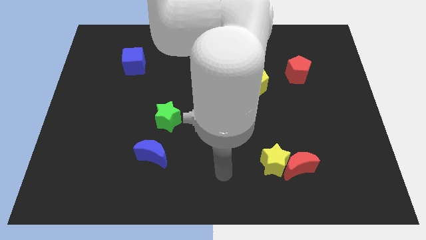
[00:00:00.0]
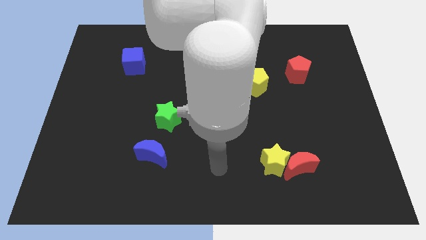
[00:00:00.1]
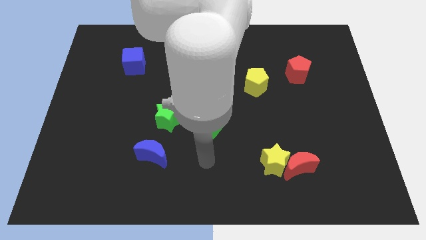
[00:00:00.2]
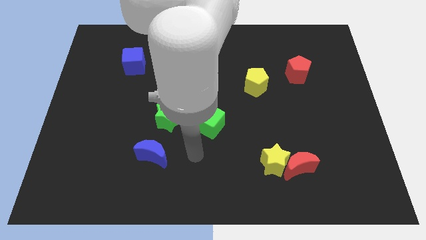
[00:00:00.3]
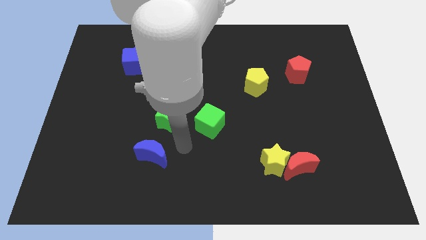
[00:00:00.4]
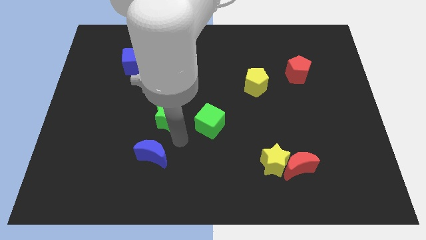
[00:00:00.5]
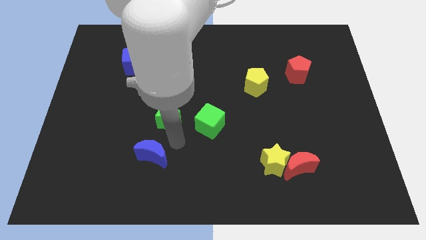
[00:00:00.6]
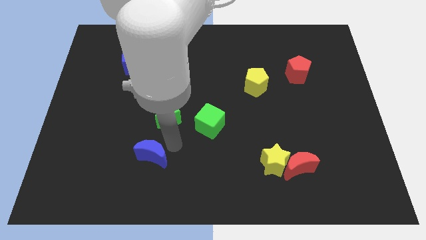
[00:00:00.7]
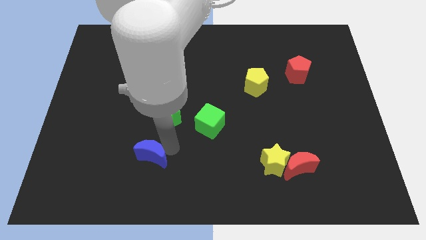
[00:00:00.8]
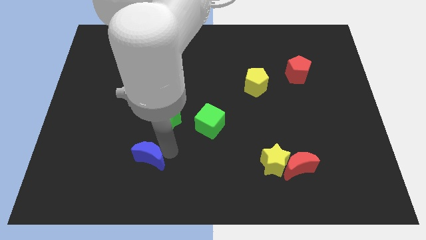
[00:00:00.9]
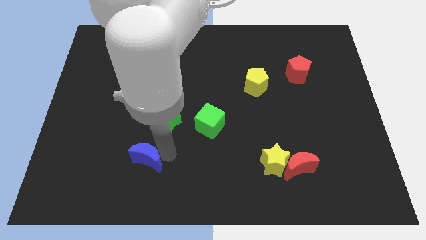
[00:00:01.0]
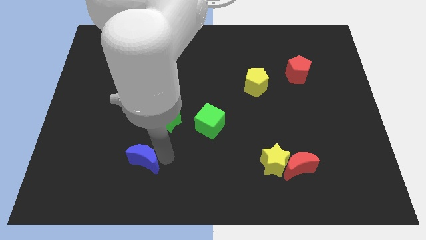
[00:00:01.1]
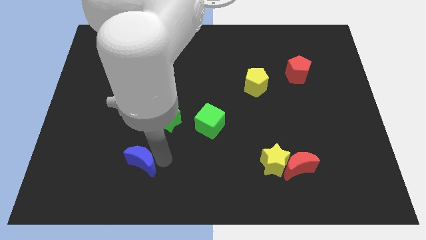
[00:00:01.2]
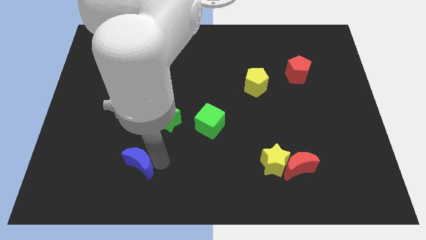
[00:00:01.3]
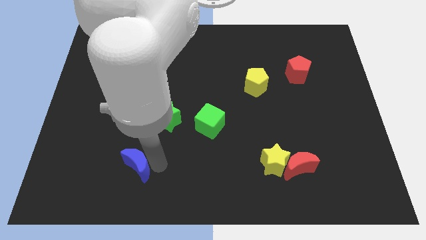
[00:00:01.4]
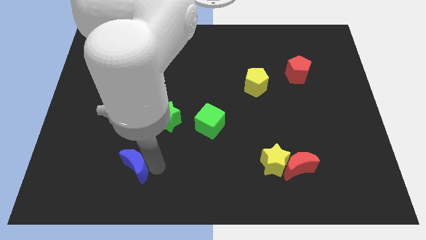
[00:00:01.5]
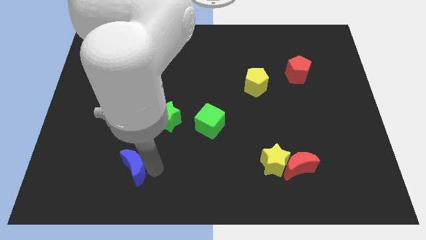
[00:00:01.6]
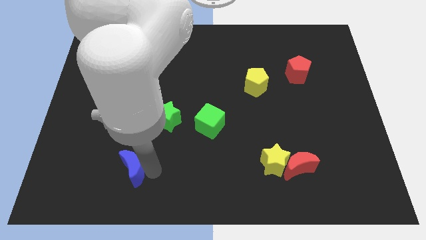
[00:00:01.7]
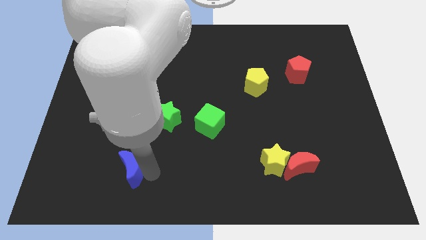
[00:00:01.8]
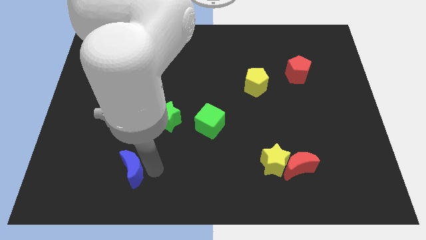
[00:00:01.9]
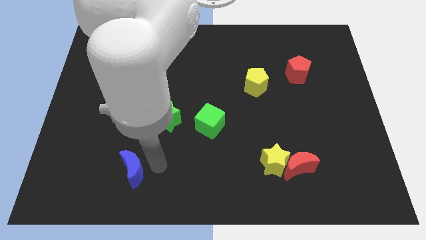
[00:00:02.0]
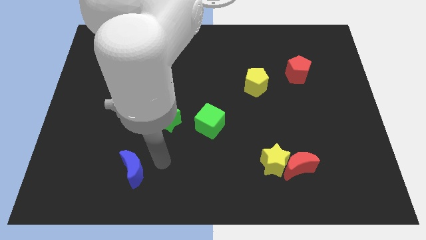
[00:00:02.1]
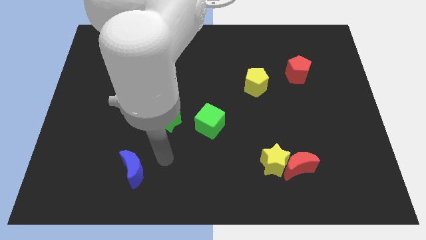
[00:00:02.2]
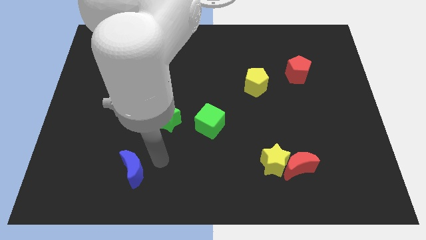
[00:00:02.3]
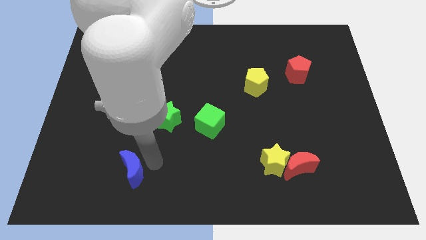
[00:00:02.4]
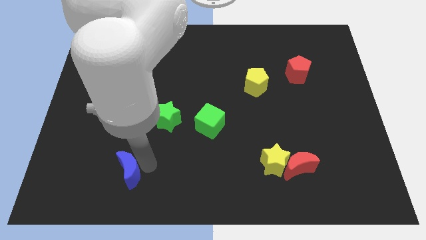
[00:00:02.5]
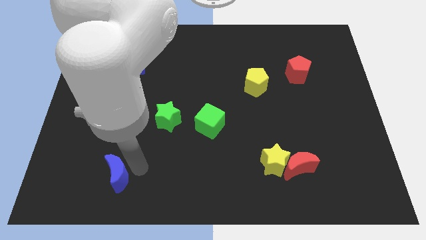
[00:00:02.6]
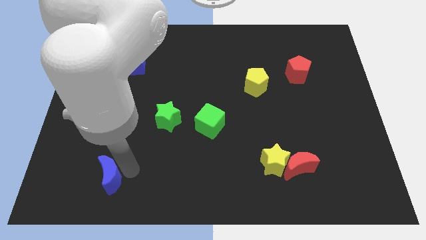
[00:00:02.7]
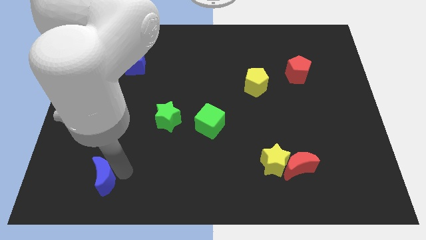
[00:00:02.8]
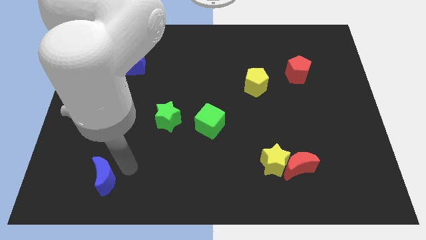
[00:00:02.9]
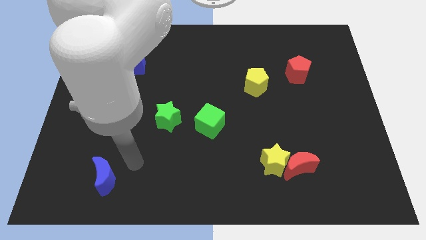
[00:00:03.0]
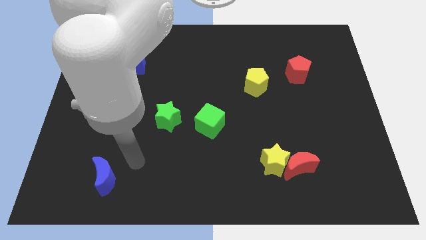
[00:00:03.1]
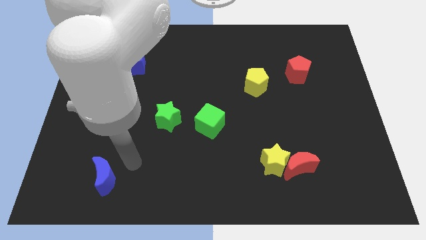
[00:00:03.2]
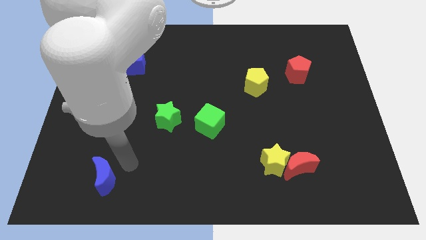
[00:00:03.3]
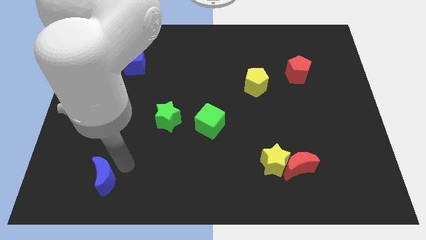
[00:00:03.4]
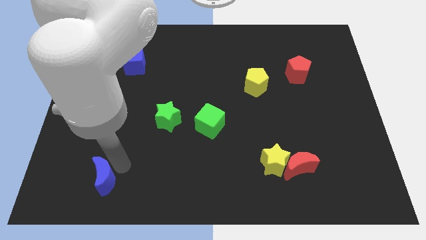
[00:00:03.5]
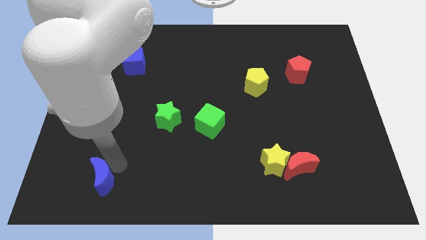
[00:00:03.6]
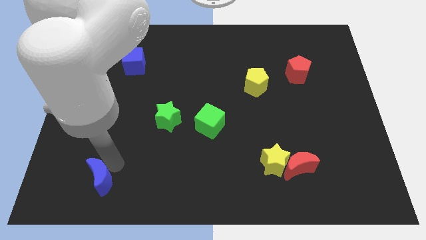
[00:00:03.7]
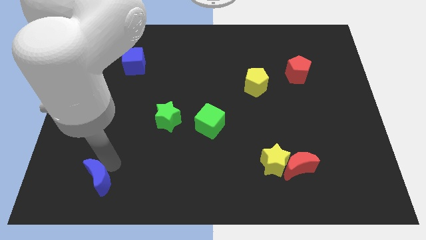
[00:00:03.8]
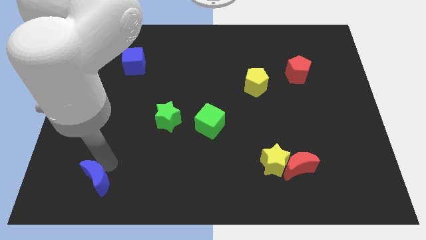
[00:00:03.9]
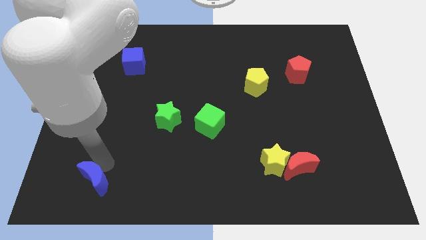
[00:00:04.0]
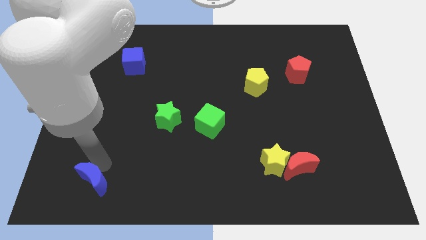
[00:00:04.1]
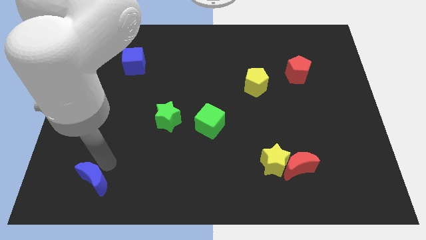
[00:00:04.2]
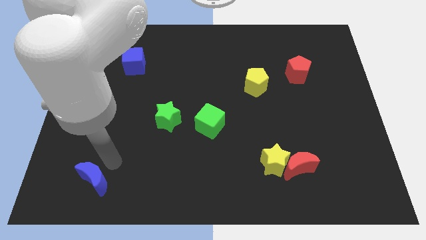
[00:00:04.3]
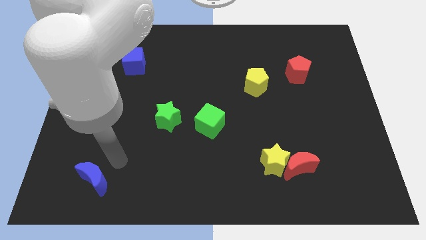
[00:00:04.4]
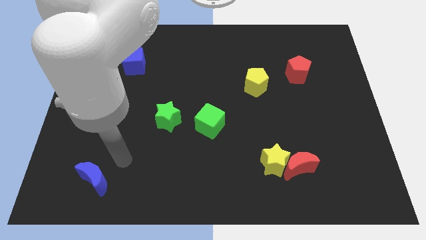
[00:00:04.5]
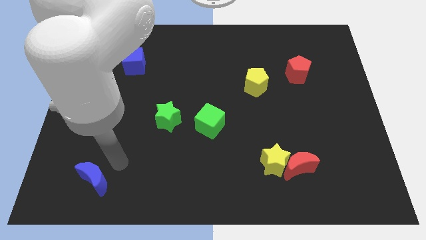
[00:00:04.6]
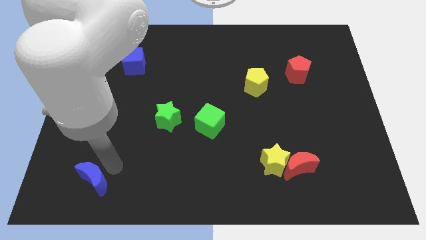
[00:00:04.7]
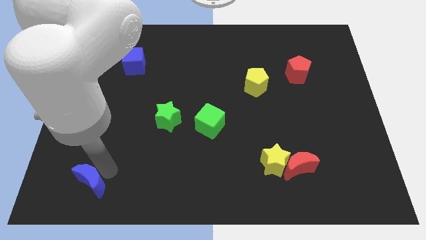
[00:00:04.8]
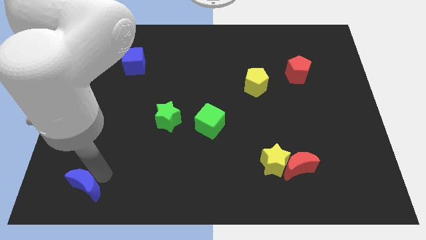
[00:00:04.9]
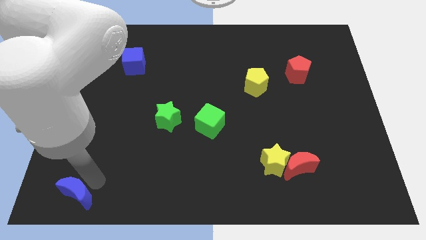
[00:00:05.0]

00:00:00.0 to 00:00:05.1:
put the blue moon to the bottom left
